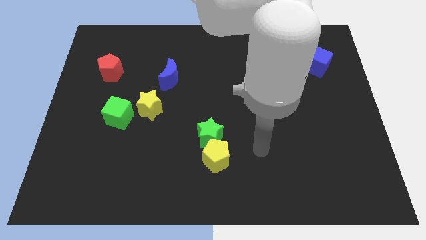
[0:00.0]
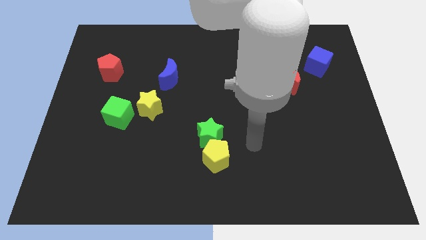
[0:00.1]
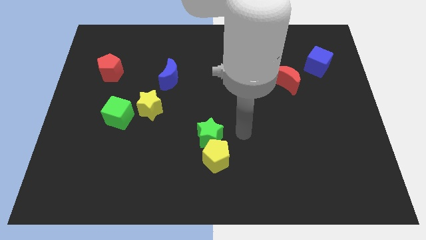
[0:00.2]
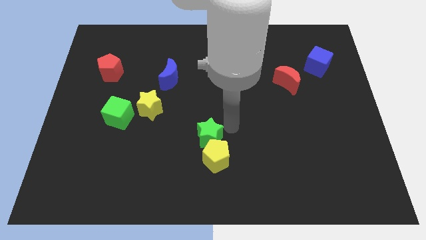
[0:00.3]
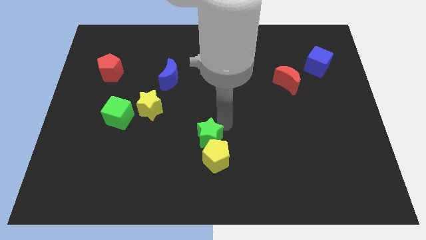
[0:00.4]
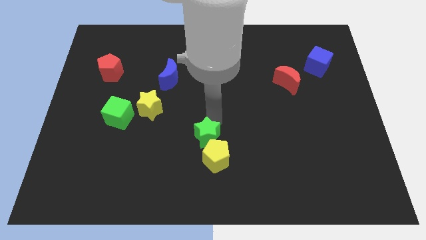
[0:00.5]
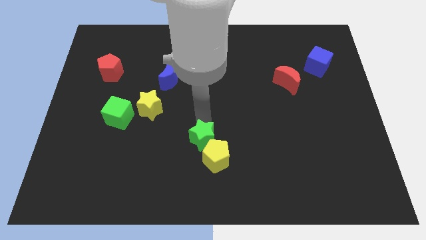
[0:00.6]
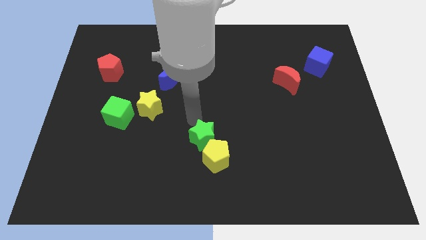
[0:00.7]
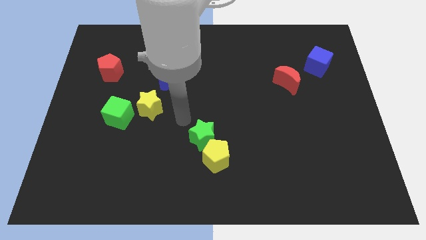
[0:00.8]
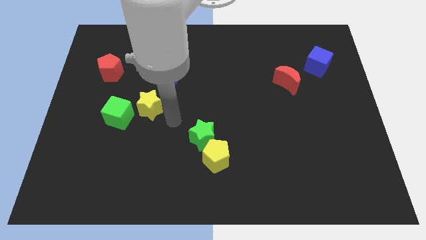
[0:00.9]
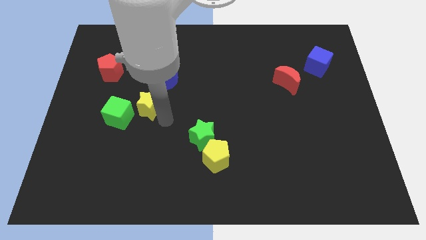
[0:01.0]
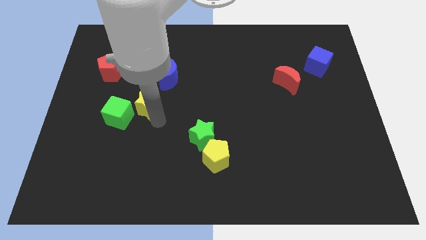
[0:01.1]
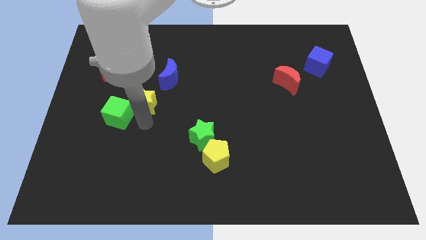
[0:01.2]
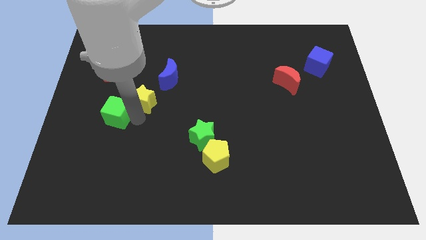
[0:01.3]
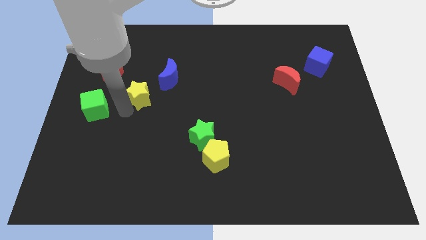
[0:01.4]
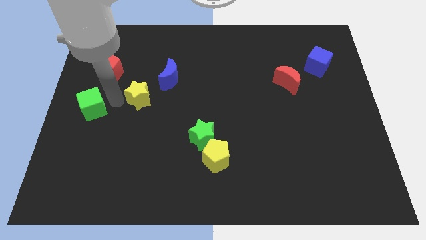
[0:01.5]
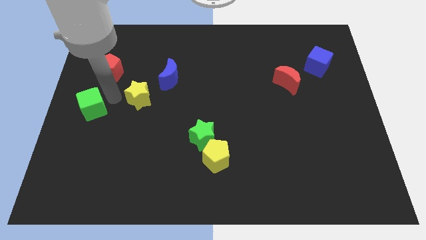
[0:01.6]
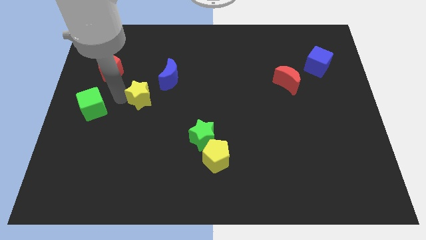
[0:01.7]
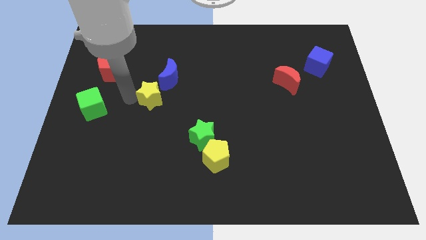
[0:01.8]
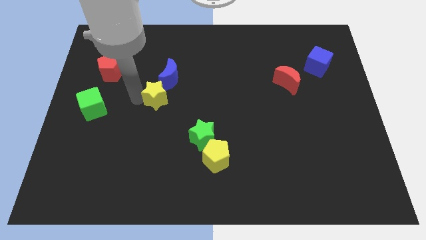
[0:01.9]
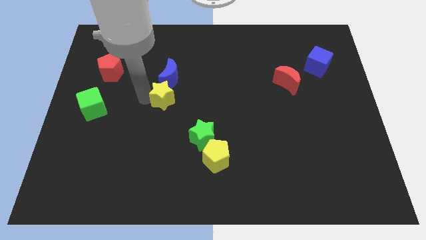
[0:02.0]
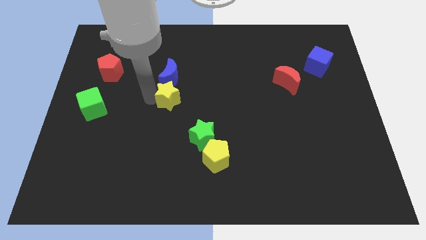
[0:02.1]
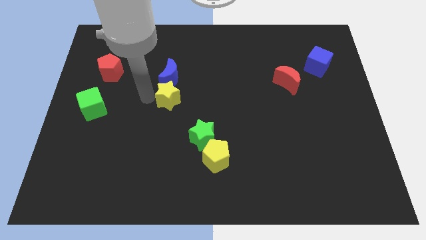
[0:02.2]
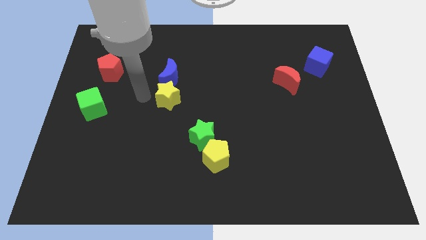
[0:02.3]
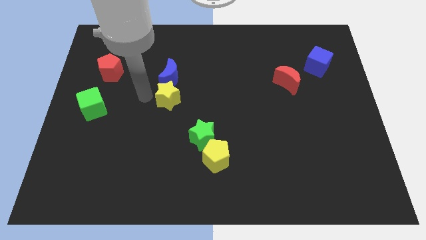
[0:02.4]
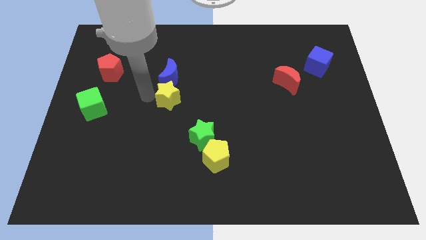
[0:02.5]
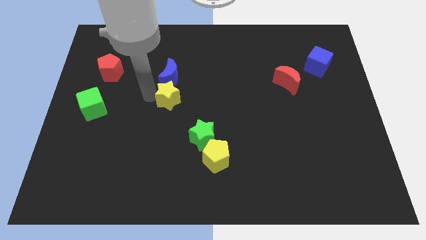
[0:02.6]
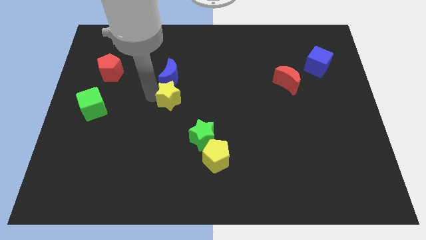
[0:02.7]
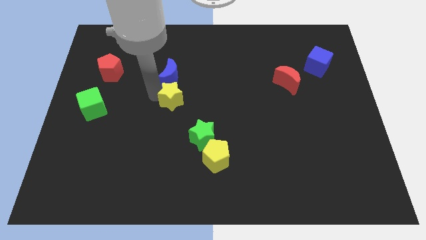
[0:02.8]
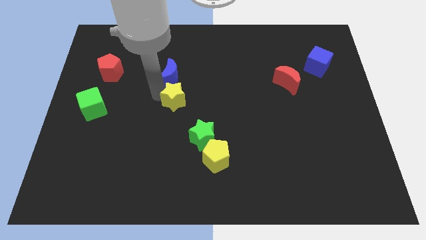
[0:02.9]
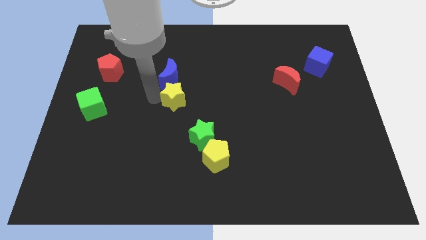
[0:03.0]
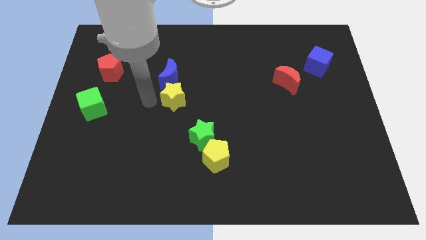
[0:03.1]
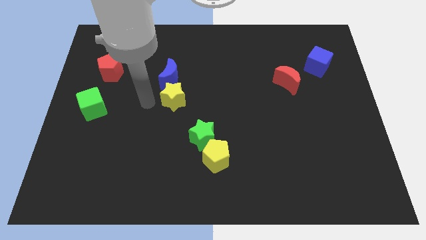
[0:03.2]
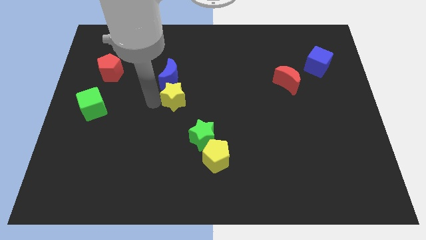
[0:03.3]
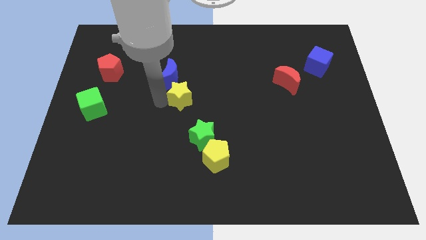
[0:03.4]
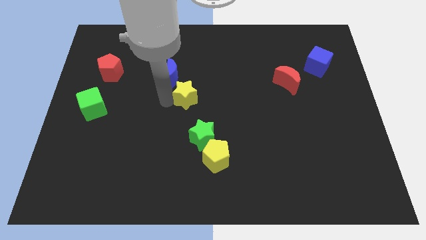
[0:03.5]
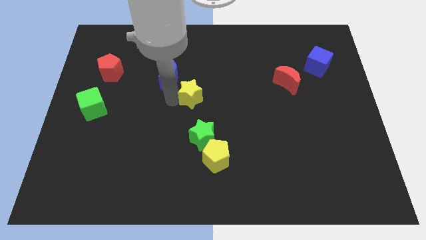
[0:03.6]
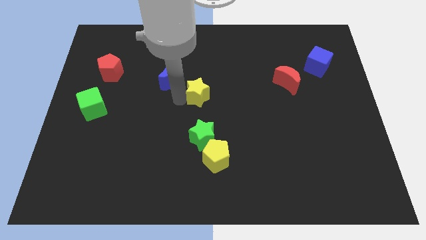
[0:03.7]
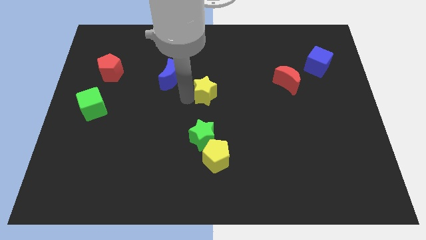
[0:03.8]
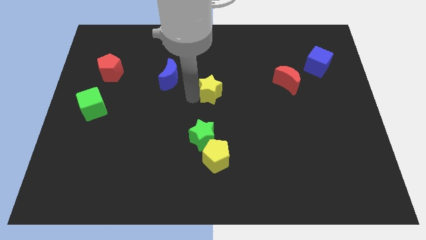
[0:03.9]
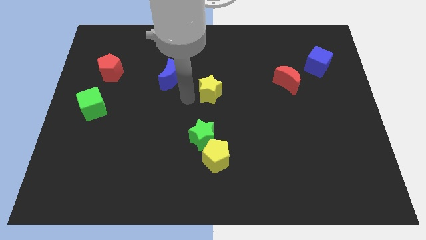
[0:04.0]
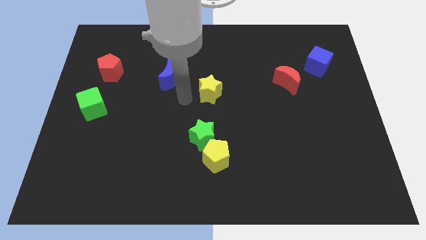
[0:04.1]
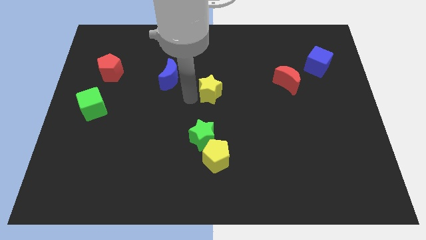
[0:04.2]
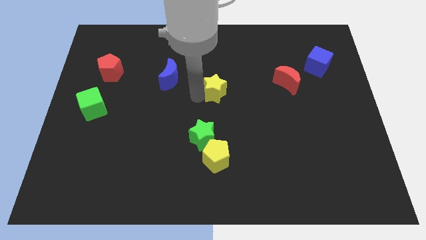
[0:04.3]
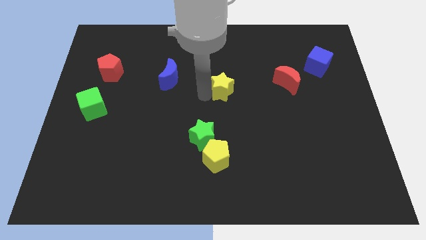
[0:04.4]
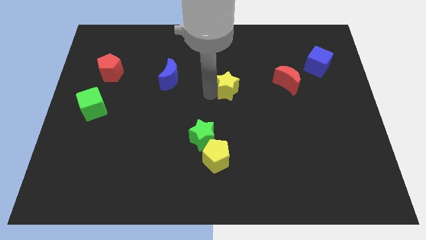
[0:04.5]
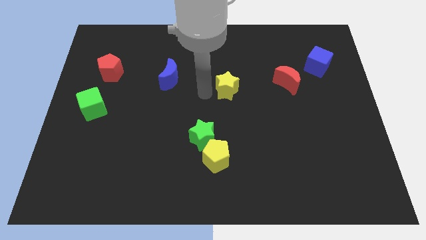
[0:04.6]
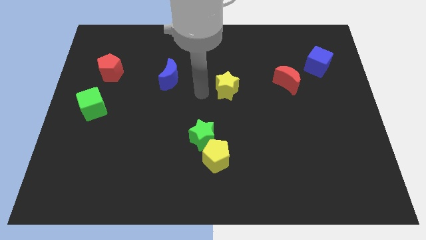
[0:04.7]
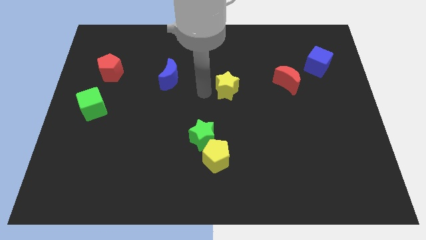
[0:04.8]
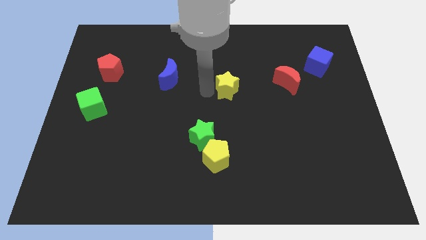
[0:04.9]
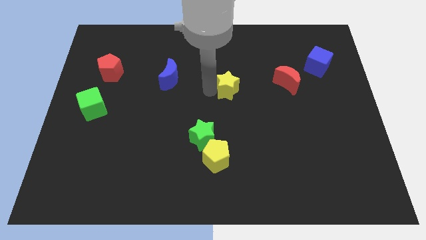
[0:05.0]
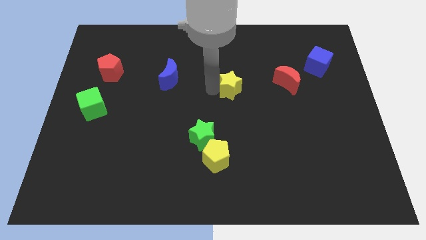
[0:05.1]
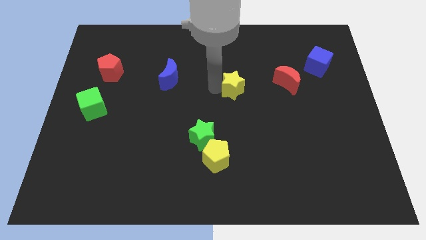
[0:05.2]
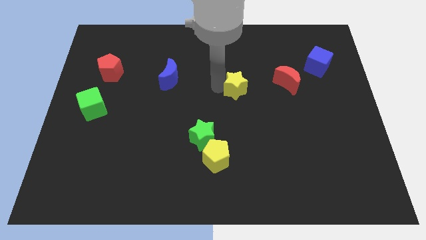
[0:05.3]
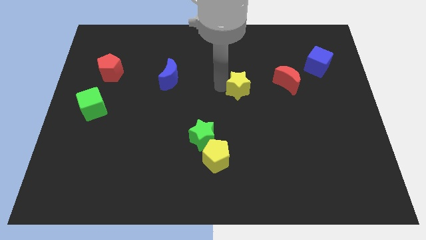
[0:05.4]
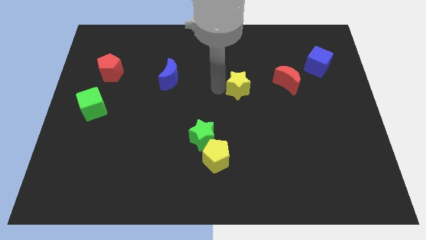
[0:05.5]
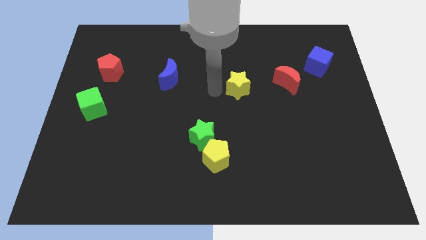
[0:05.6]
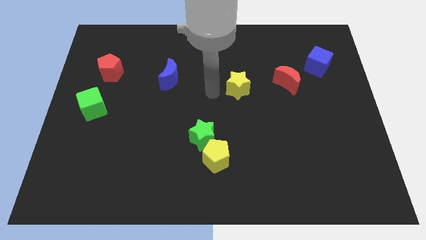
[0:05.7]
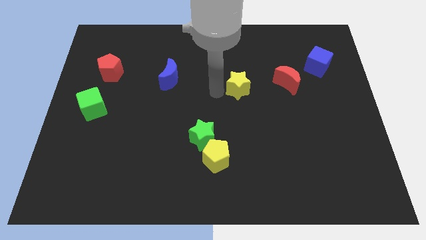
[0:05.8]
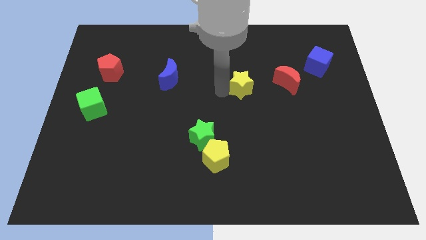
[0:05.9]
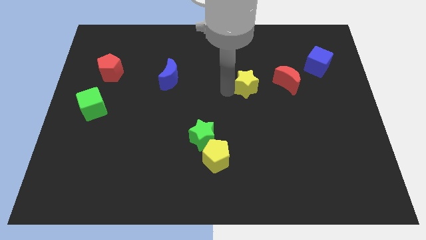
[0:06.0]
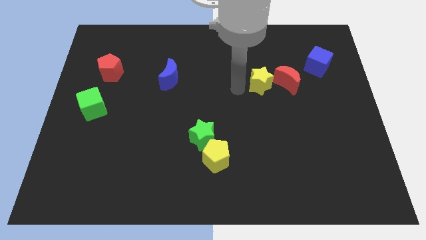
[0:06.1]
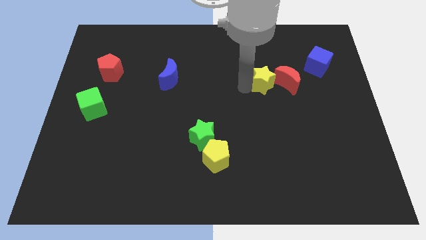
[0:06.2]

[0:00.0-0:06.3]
move the yellow star to the red moon

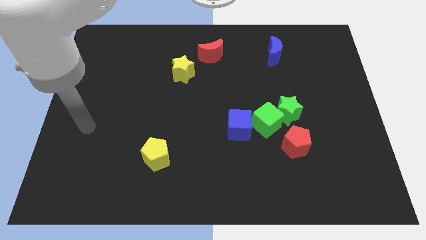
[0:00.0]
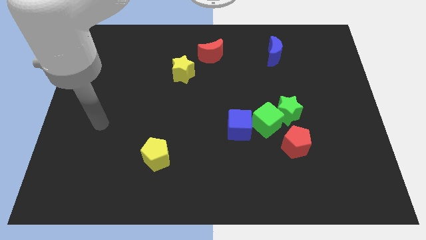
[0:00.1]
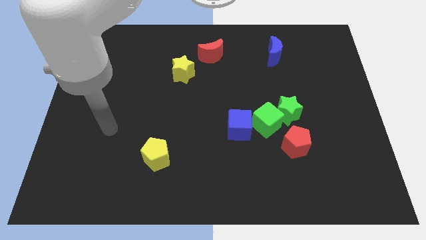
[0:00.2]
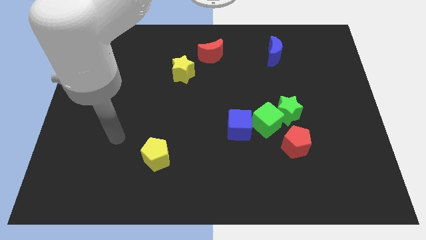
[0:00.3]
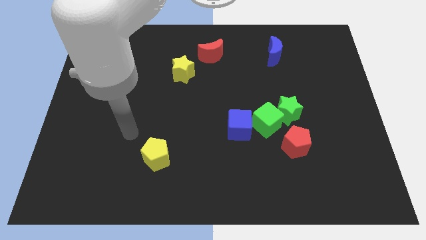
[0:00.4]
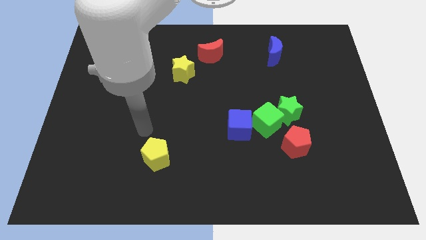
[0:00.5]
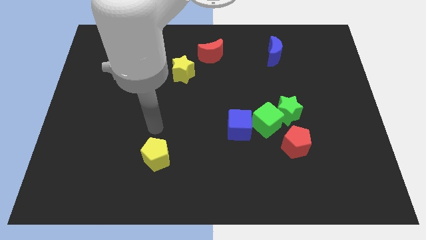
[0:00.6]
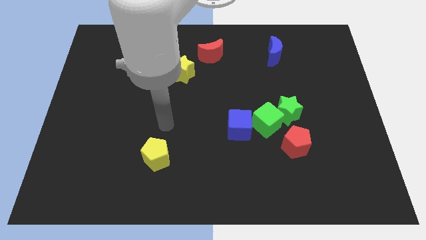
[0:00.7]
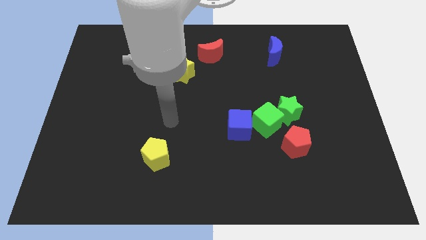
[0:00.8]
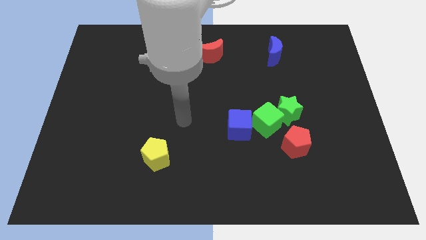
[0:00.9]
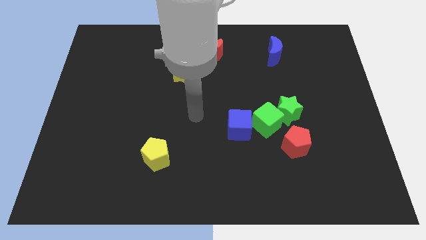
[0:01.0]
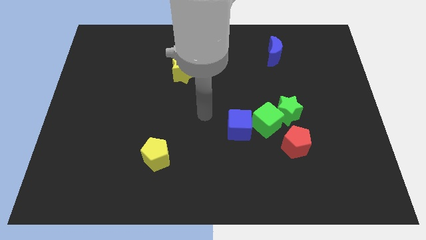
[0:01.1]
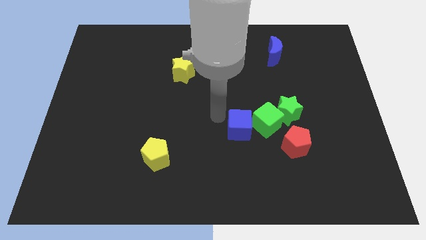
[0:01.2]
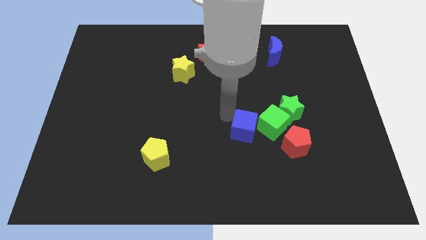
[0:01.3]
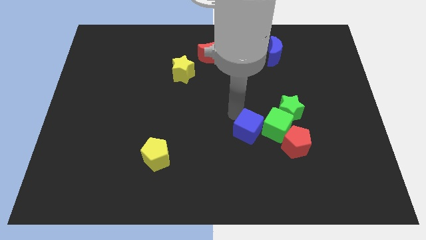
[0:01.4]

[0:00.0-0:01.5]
move the green cube close to the red pentagon
